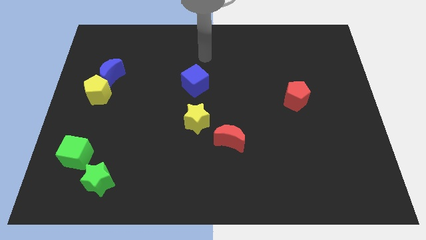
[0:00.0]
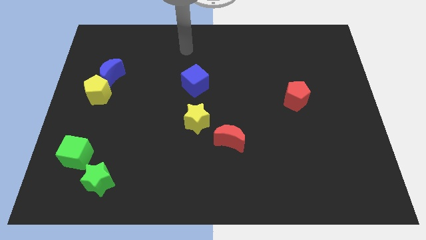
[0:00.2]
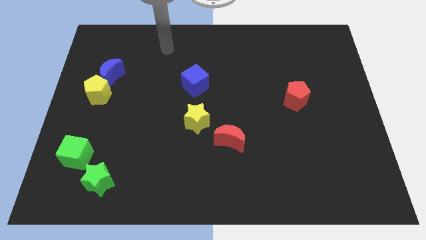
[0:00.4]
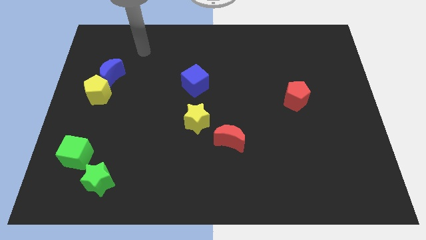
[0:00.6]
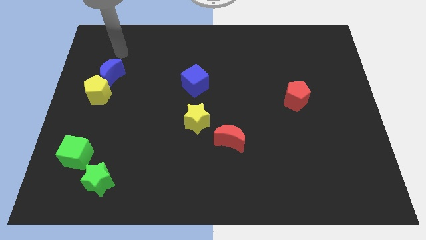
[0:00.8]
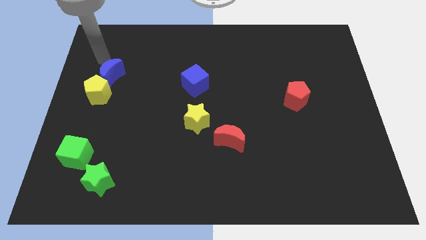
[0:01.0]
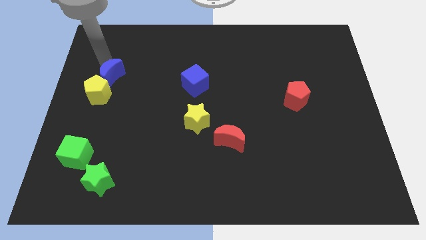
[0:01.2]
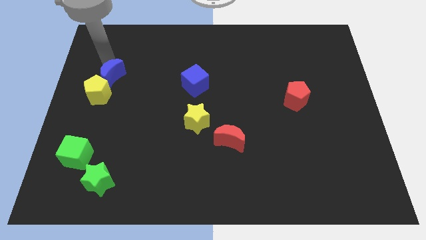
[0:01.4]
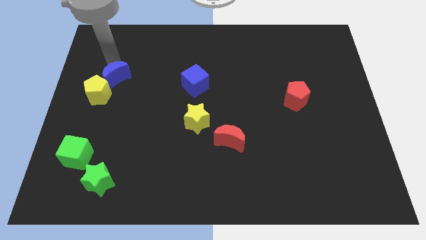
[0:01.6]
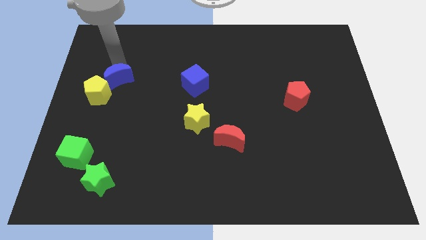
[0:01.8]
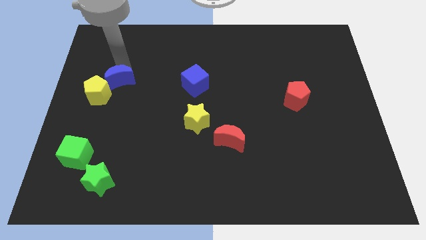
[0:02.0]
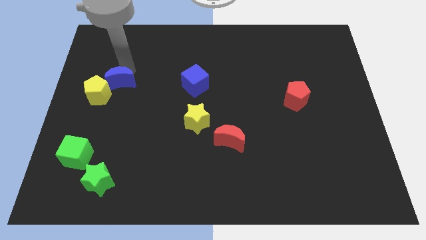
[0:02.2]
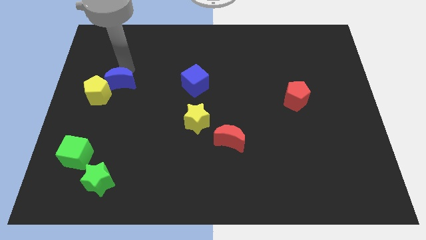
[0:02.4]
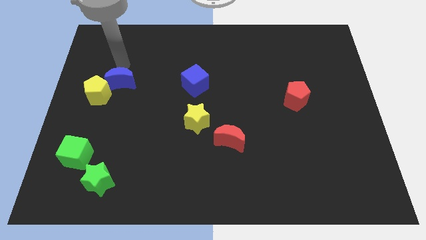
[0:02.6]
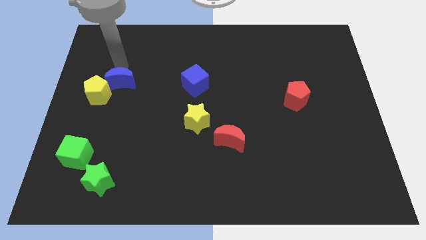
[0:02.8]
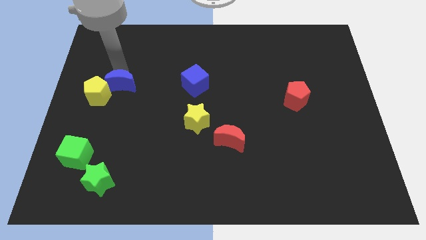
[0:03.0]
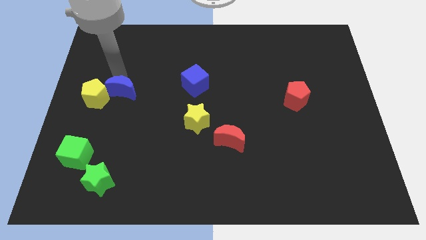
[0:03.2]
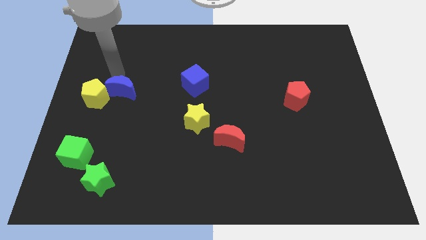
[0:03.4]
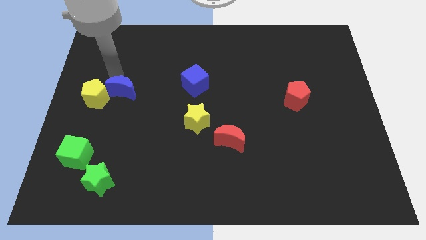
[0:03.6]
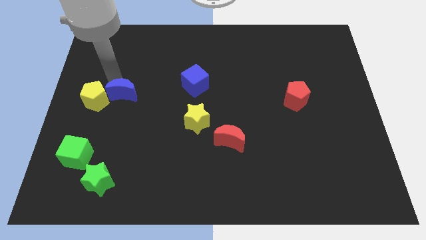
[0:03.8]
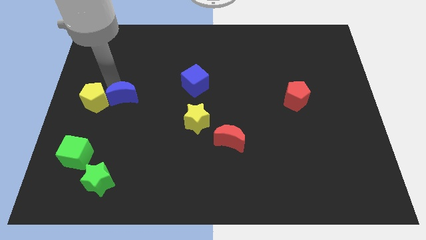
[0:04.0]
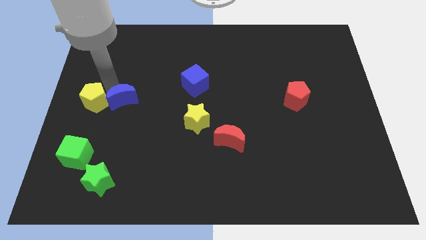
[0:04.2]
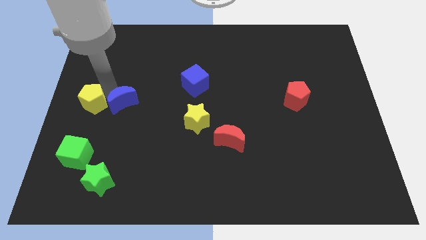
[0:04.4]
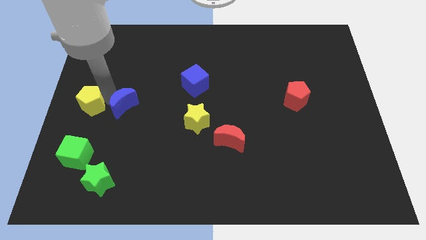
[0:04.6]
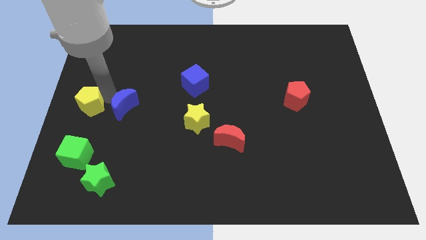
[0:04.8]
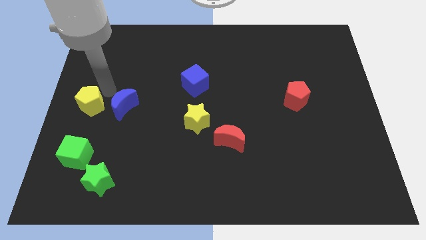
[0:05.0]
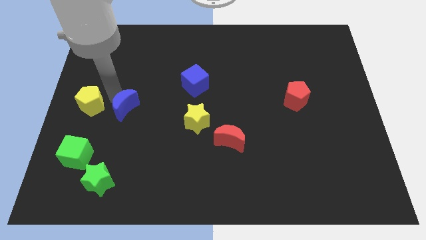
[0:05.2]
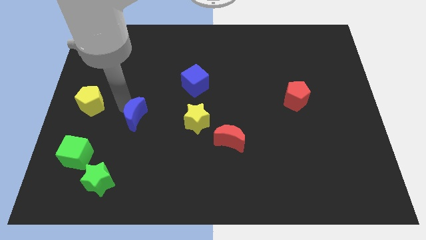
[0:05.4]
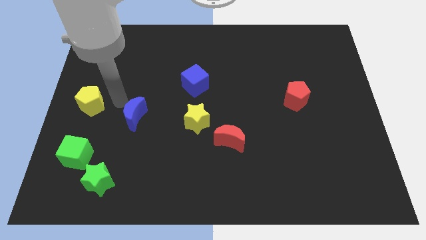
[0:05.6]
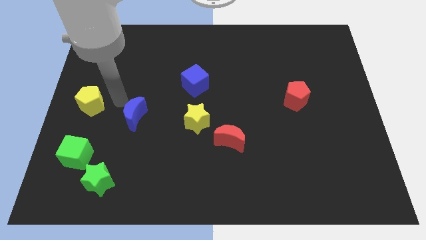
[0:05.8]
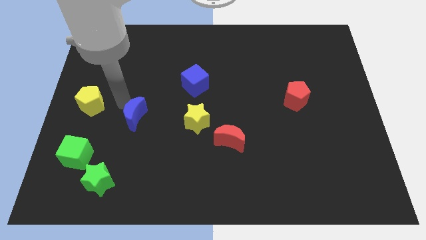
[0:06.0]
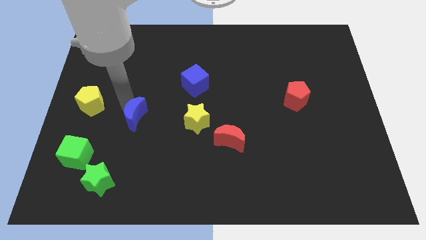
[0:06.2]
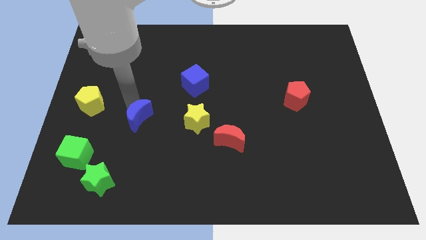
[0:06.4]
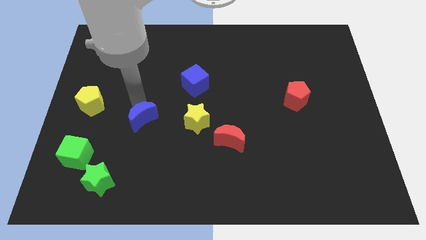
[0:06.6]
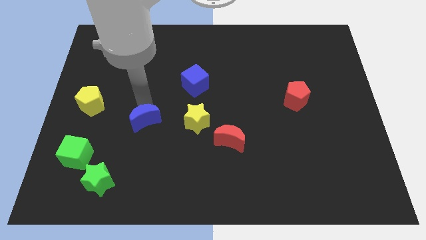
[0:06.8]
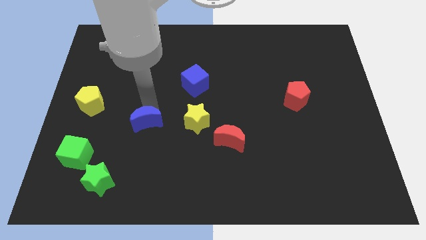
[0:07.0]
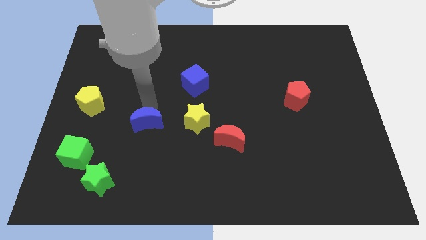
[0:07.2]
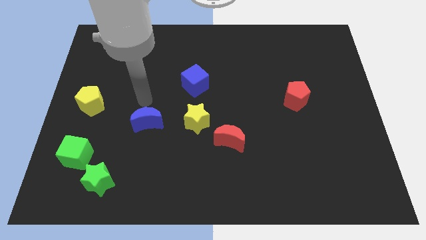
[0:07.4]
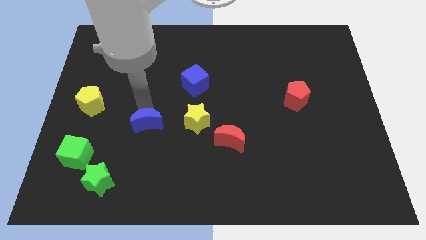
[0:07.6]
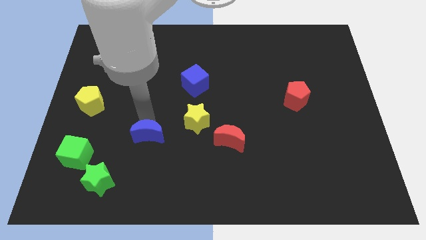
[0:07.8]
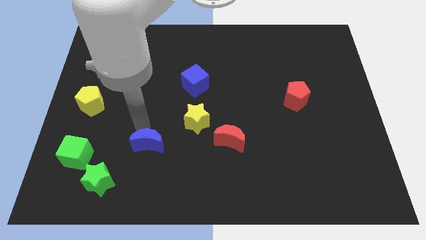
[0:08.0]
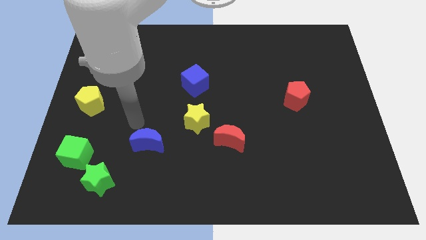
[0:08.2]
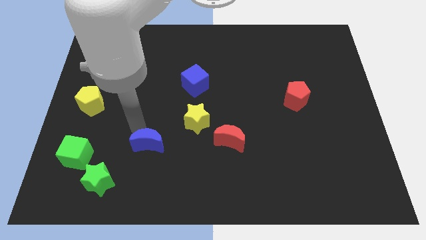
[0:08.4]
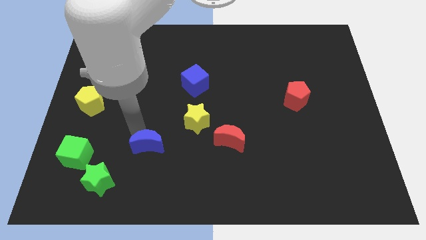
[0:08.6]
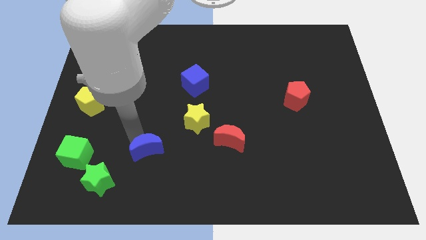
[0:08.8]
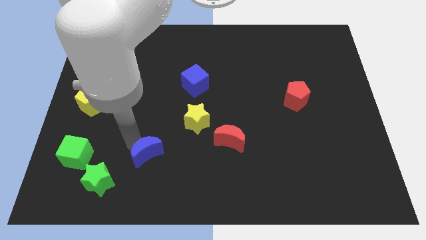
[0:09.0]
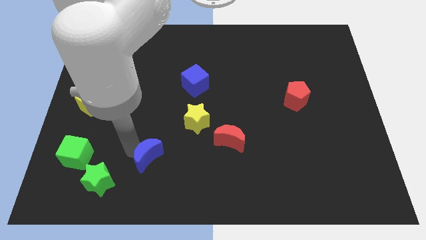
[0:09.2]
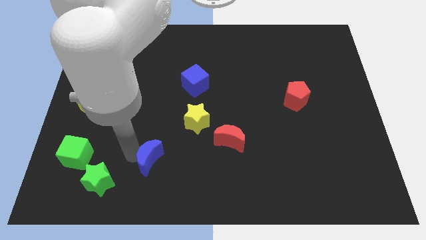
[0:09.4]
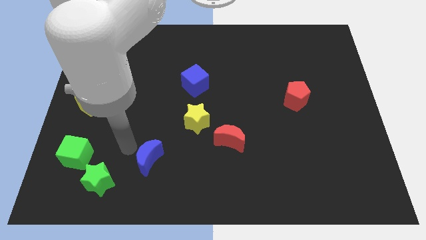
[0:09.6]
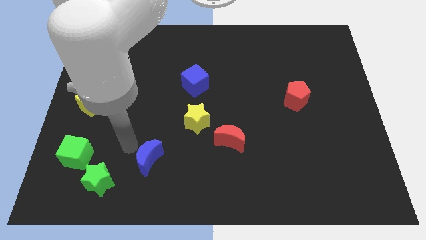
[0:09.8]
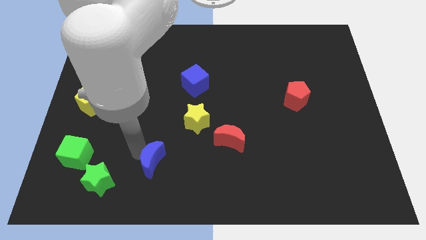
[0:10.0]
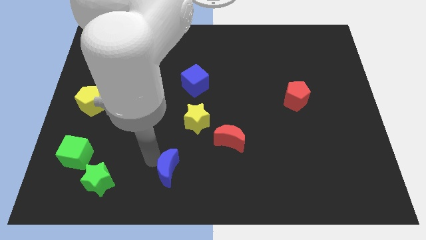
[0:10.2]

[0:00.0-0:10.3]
move the blue moon to the bottom side

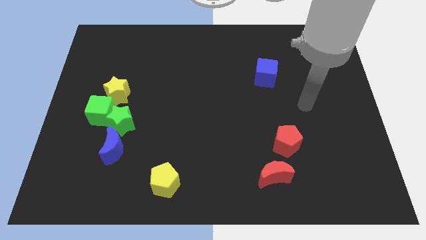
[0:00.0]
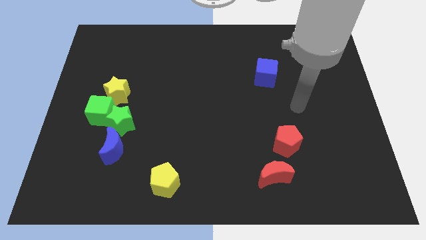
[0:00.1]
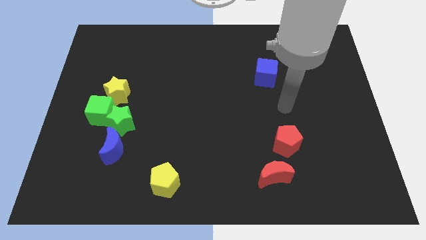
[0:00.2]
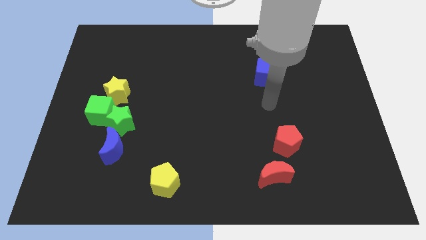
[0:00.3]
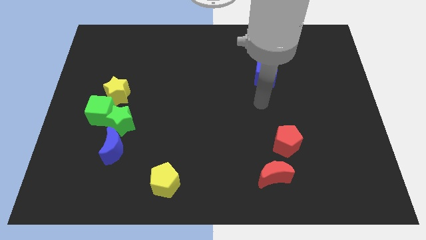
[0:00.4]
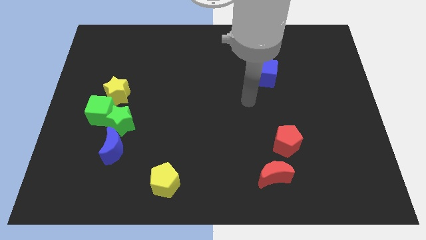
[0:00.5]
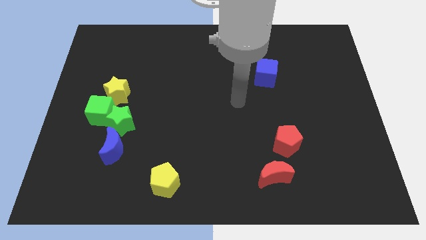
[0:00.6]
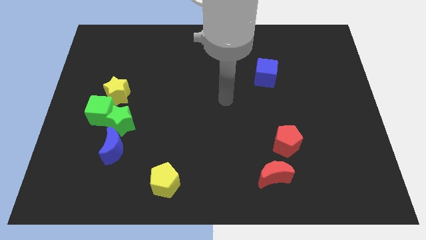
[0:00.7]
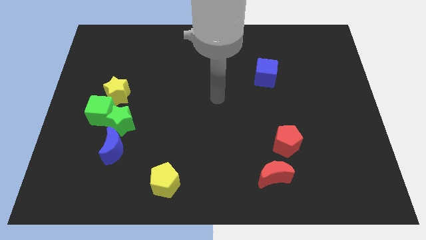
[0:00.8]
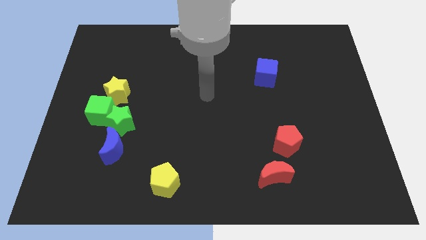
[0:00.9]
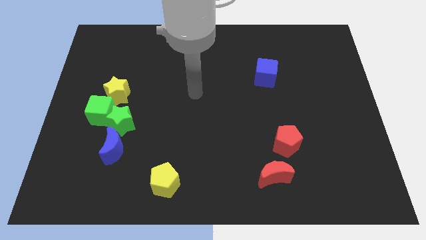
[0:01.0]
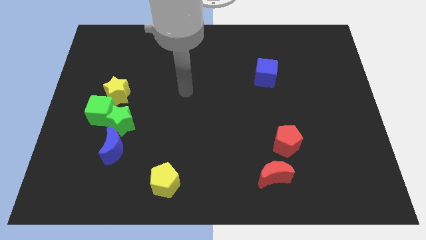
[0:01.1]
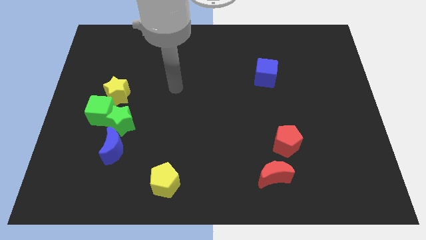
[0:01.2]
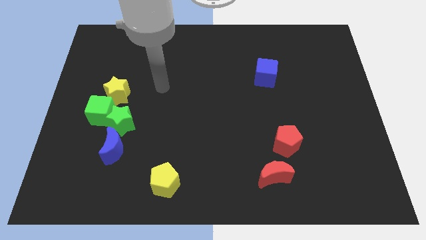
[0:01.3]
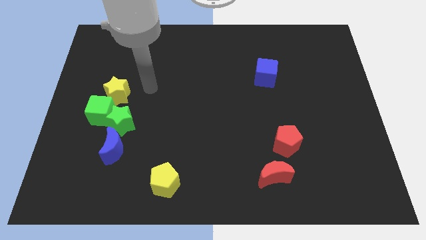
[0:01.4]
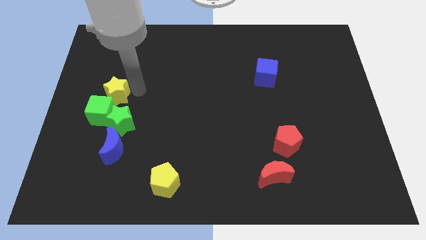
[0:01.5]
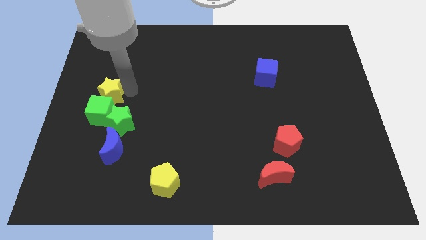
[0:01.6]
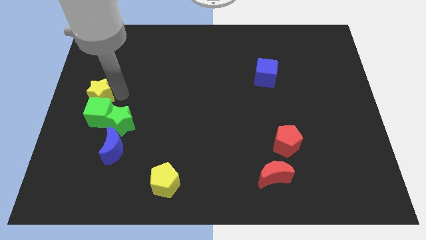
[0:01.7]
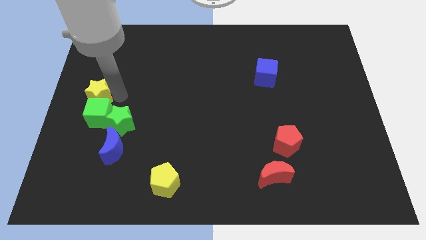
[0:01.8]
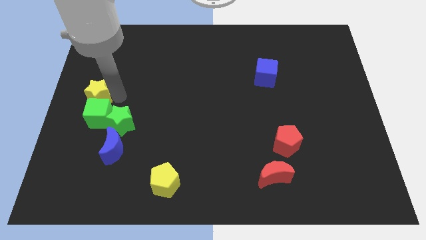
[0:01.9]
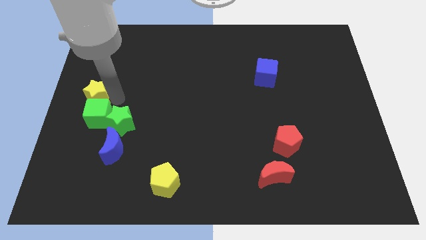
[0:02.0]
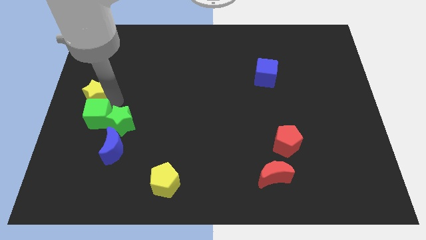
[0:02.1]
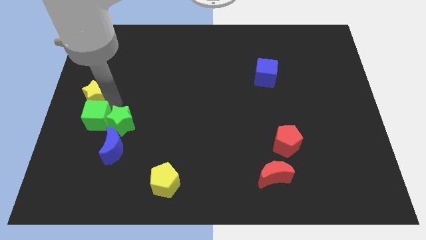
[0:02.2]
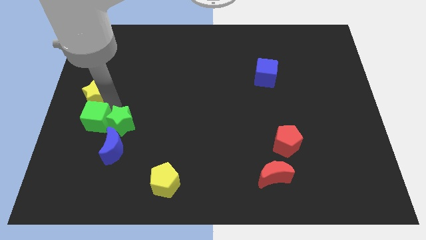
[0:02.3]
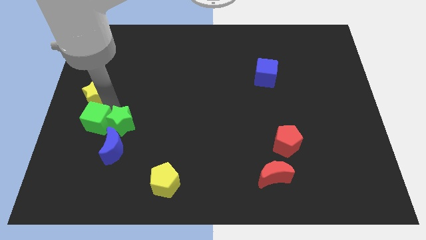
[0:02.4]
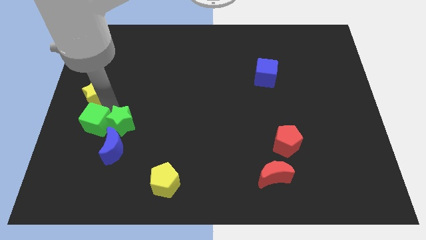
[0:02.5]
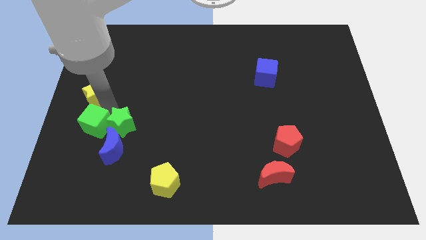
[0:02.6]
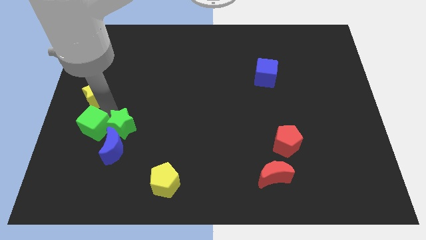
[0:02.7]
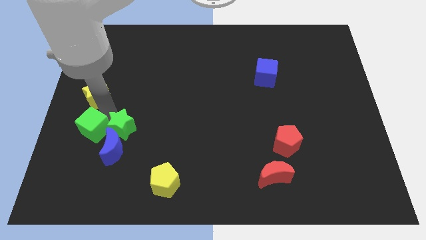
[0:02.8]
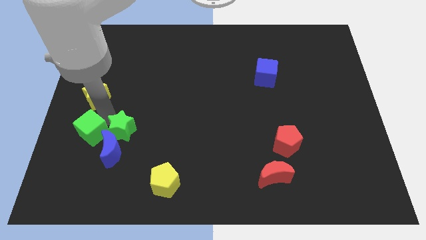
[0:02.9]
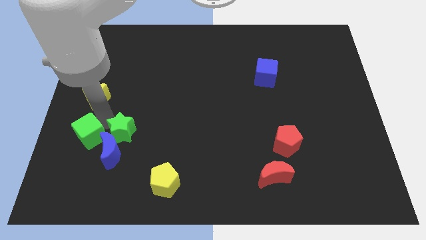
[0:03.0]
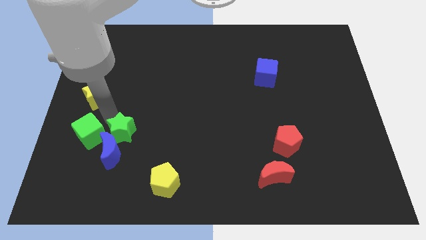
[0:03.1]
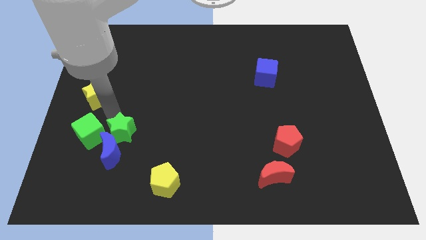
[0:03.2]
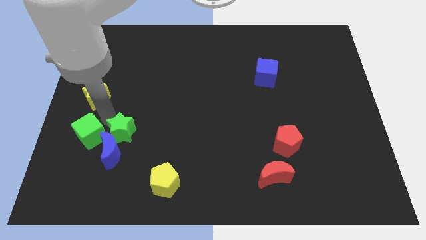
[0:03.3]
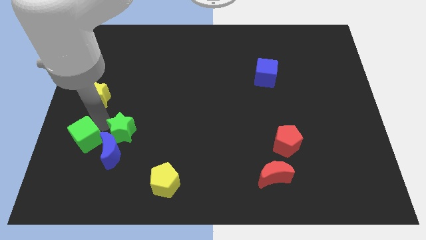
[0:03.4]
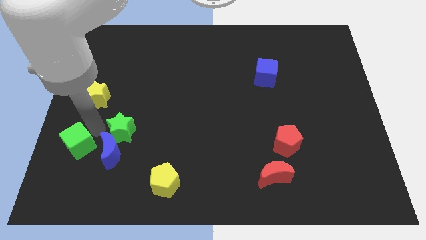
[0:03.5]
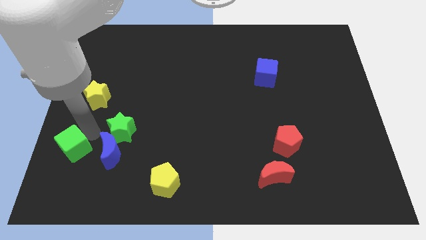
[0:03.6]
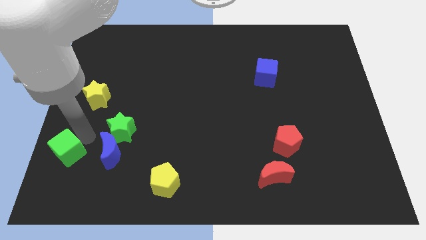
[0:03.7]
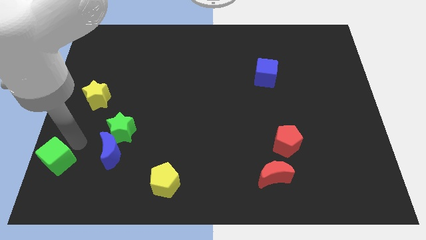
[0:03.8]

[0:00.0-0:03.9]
move the green cube to the bottom left of the board
